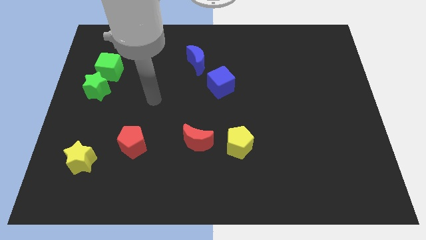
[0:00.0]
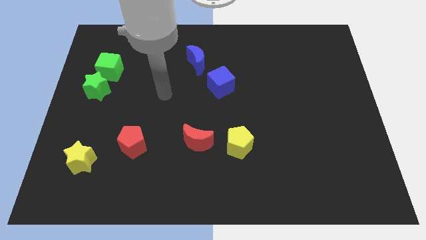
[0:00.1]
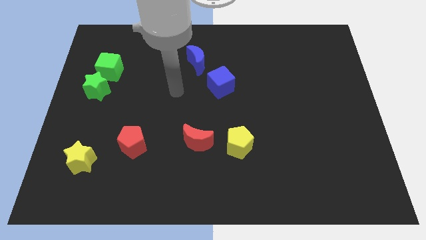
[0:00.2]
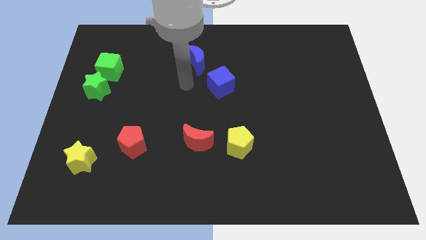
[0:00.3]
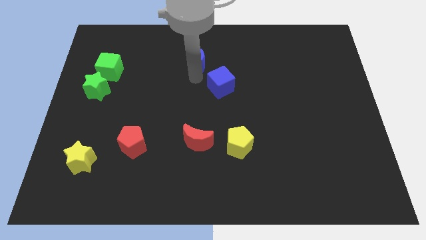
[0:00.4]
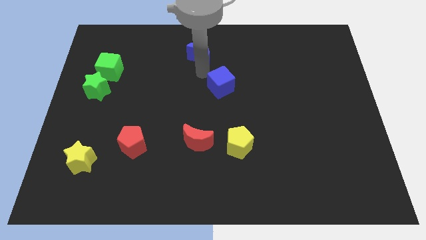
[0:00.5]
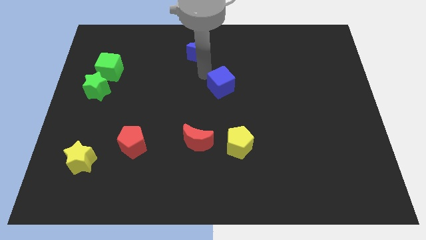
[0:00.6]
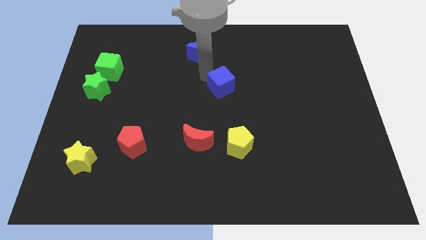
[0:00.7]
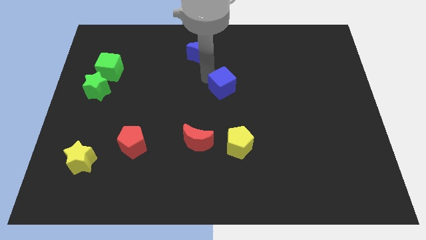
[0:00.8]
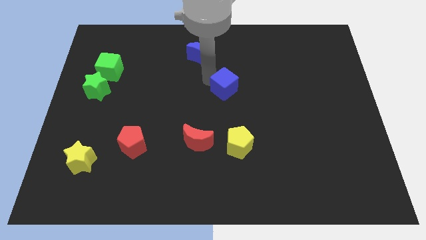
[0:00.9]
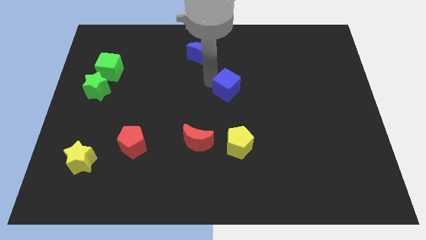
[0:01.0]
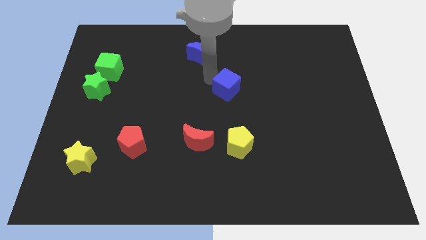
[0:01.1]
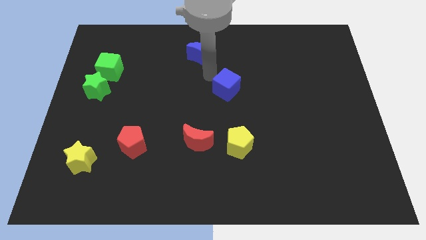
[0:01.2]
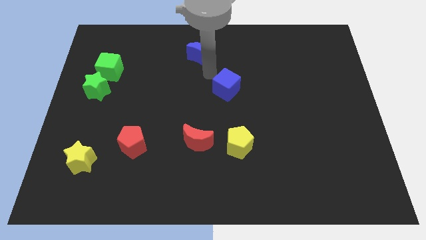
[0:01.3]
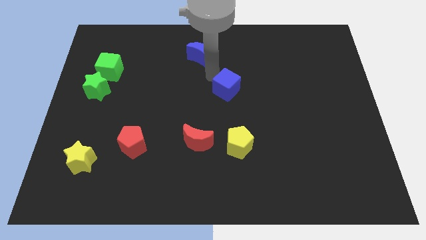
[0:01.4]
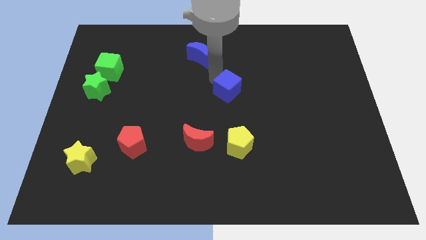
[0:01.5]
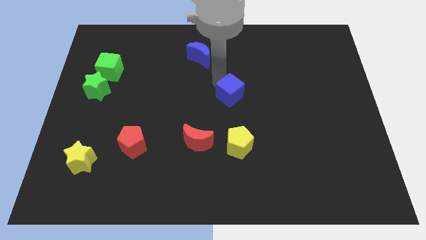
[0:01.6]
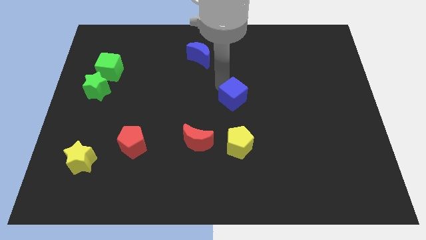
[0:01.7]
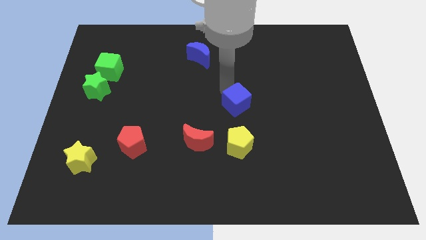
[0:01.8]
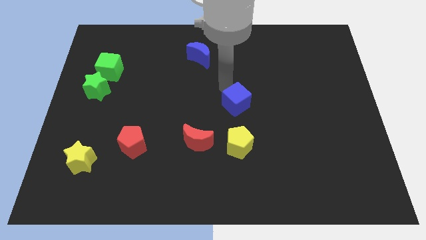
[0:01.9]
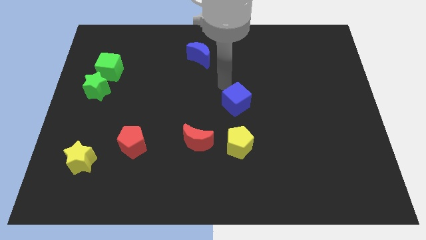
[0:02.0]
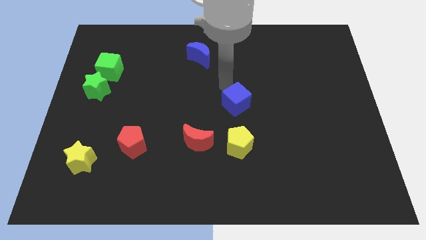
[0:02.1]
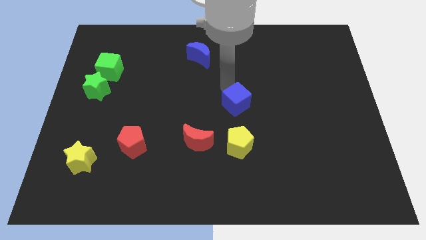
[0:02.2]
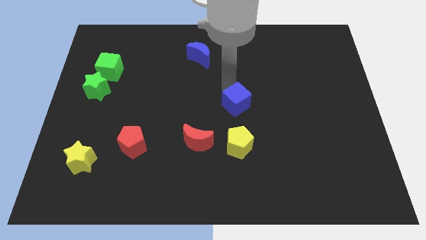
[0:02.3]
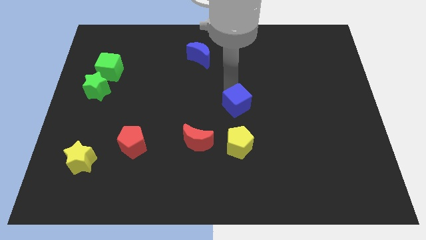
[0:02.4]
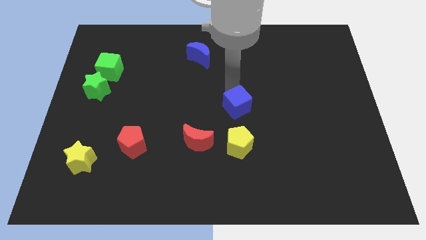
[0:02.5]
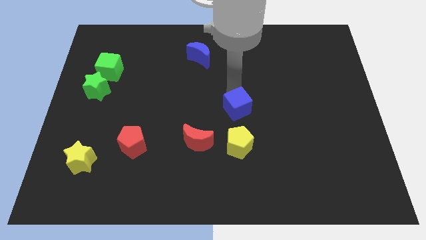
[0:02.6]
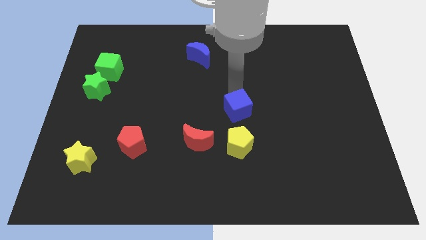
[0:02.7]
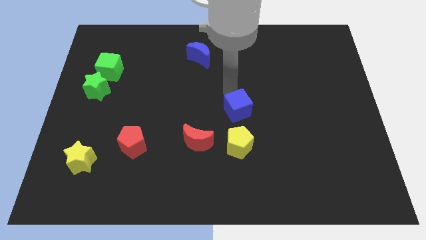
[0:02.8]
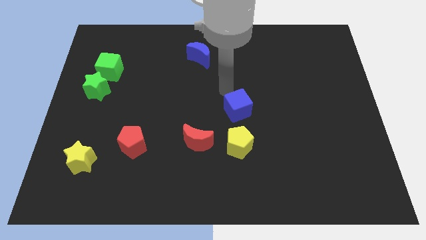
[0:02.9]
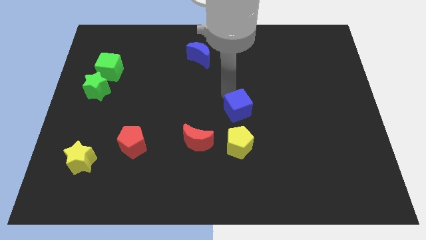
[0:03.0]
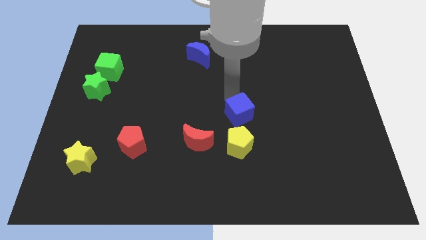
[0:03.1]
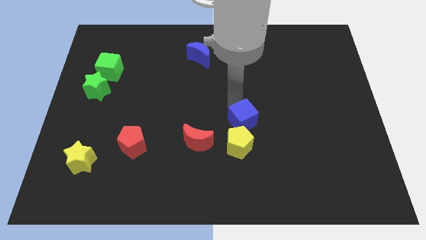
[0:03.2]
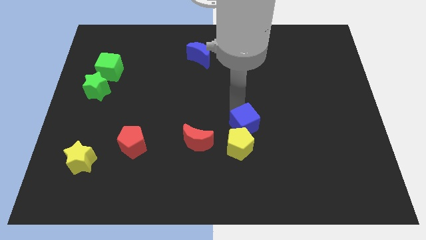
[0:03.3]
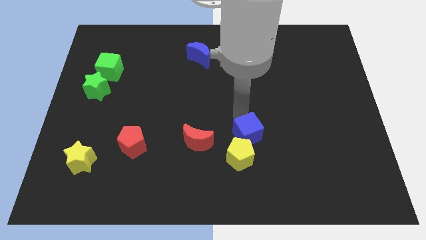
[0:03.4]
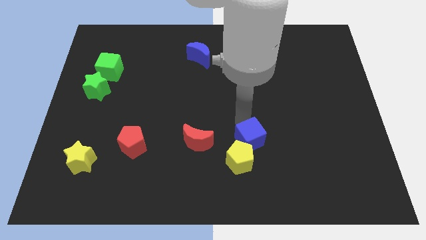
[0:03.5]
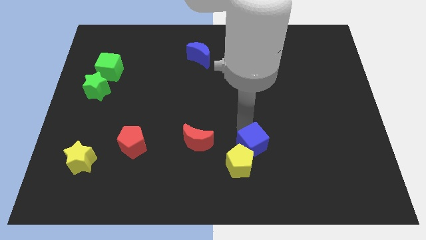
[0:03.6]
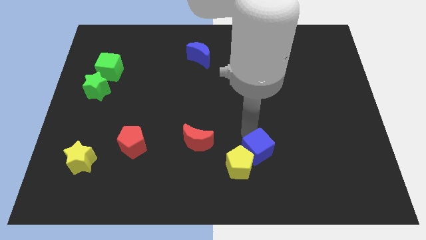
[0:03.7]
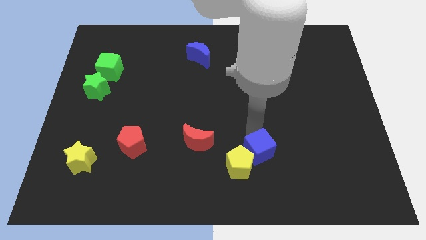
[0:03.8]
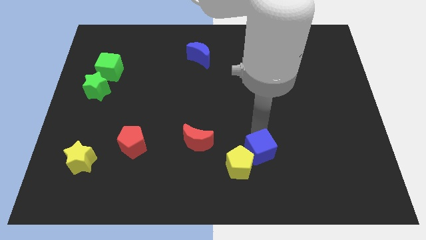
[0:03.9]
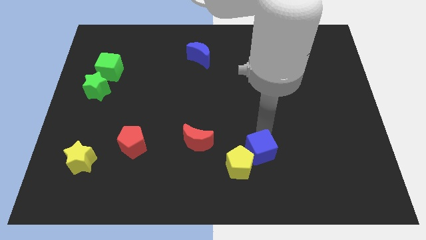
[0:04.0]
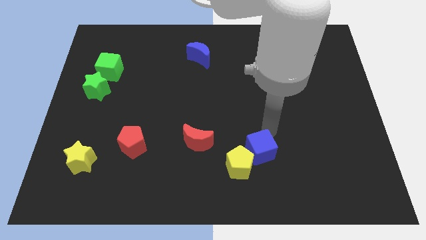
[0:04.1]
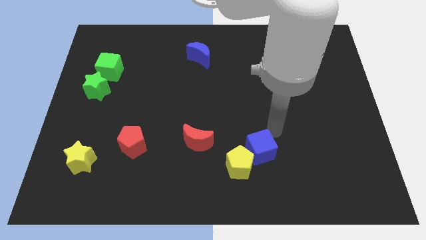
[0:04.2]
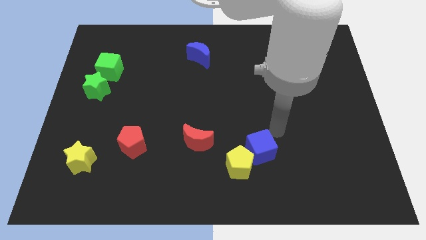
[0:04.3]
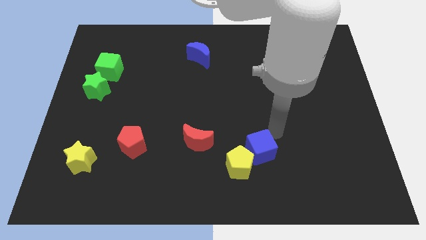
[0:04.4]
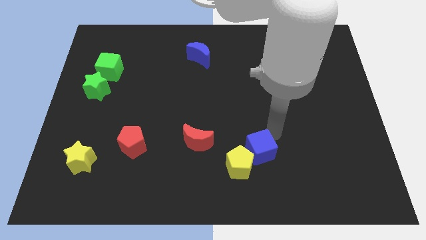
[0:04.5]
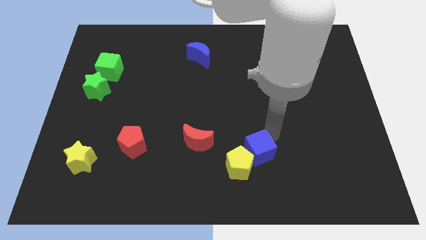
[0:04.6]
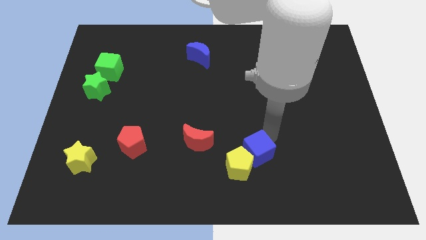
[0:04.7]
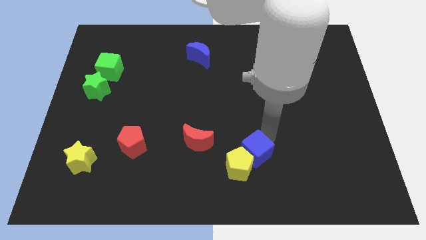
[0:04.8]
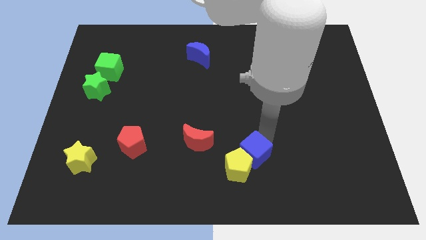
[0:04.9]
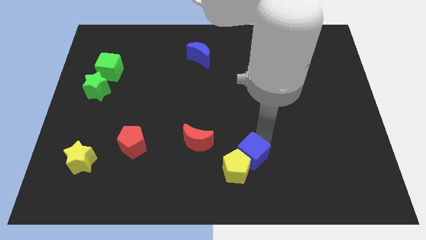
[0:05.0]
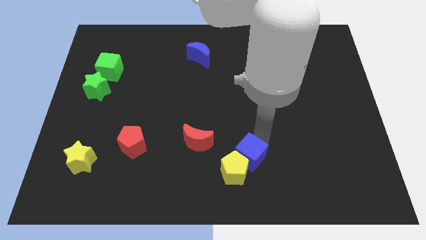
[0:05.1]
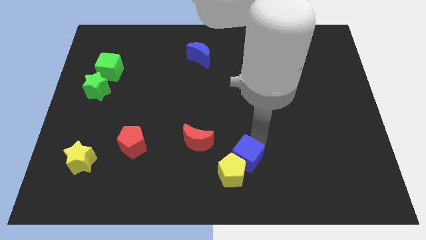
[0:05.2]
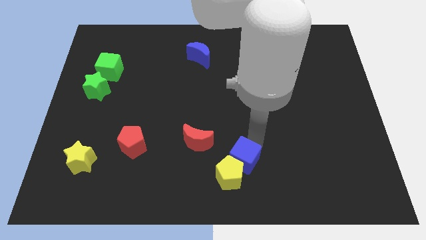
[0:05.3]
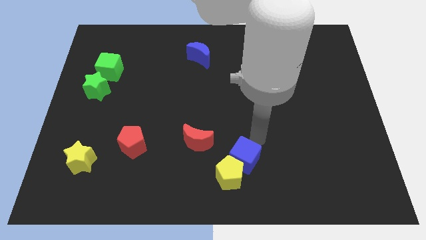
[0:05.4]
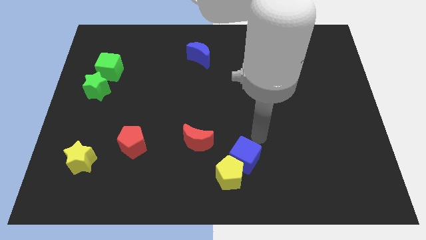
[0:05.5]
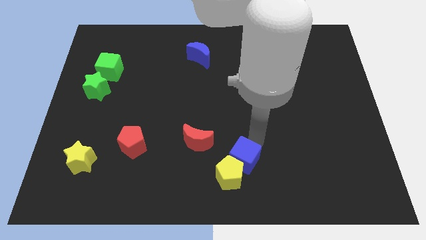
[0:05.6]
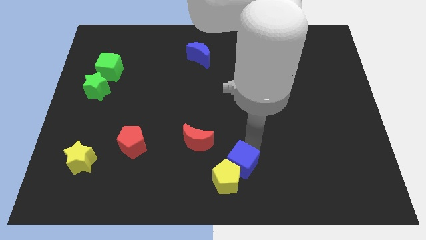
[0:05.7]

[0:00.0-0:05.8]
push the blue cube to the bottom side
